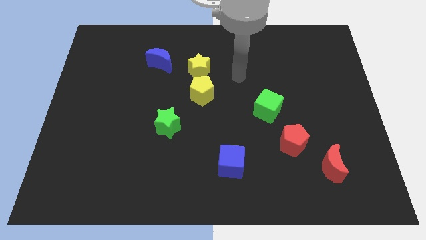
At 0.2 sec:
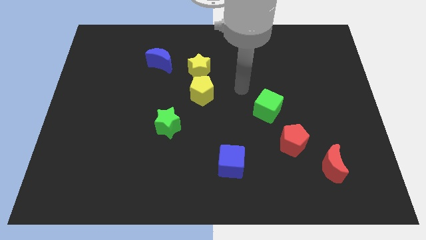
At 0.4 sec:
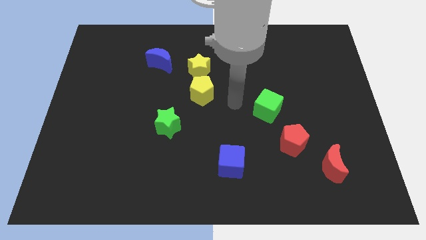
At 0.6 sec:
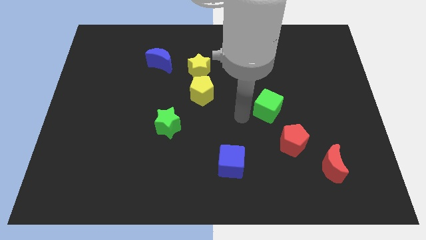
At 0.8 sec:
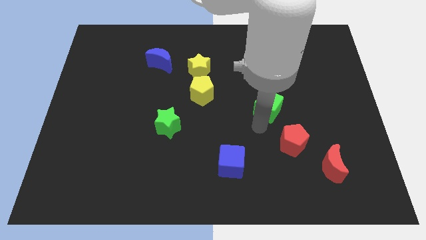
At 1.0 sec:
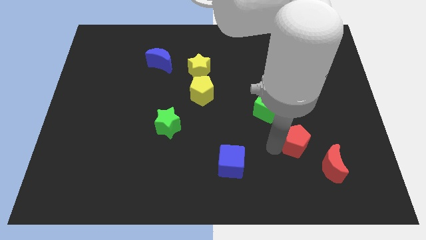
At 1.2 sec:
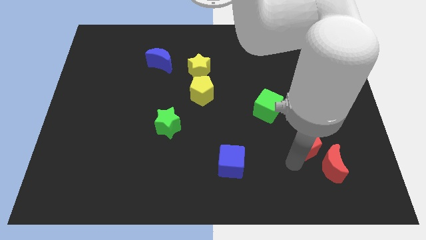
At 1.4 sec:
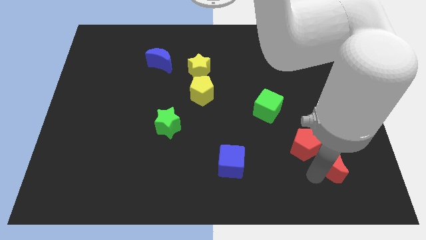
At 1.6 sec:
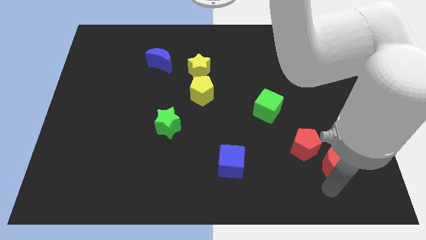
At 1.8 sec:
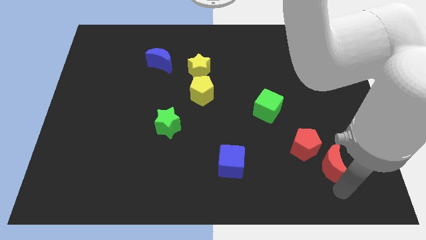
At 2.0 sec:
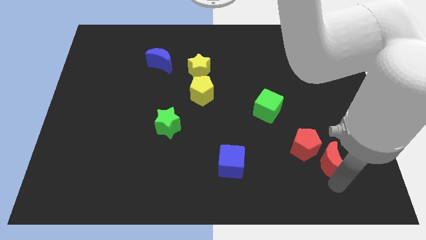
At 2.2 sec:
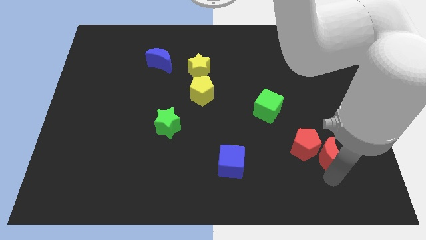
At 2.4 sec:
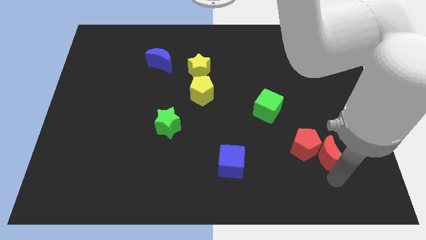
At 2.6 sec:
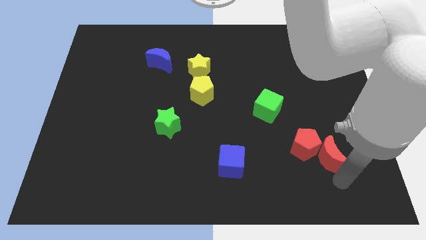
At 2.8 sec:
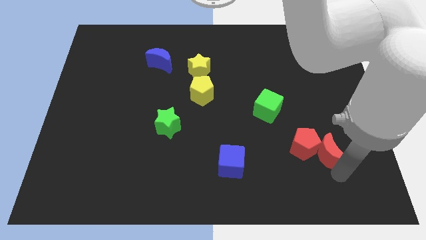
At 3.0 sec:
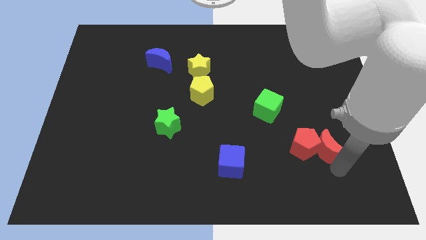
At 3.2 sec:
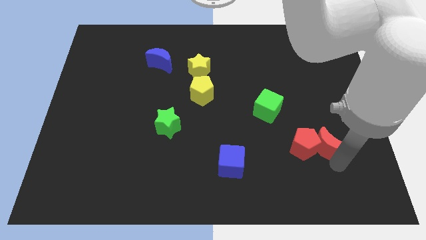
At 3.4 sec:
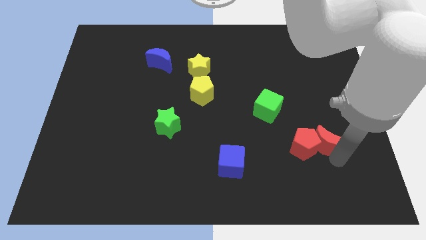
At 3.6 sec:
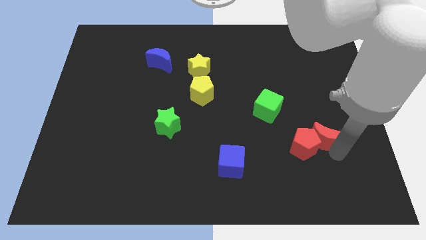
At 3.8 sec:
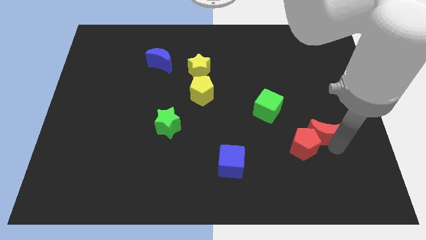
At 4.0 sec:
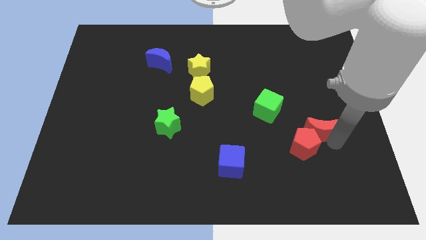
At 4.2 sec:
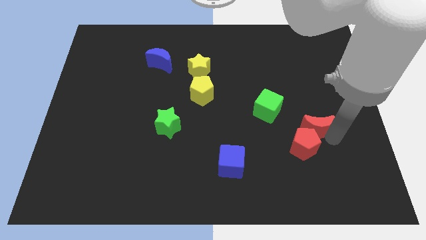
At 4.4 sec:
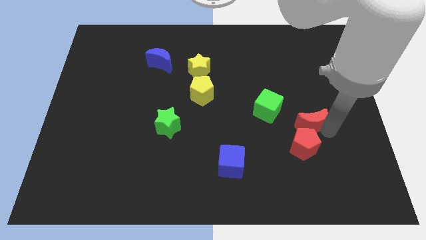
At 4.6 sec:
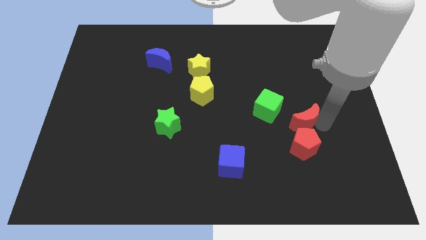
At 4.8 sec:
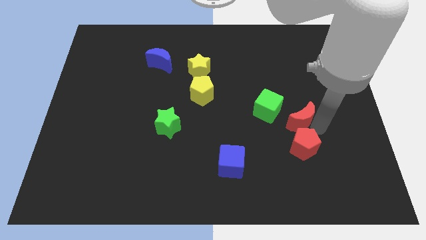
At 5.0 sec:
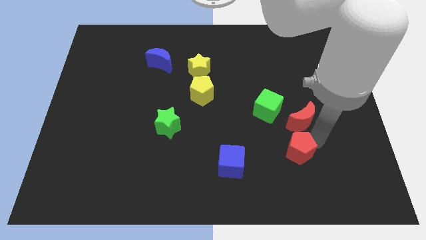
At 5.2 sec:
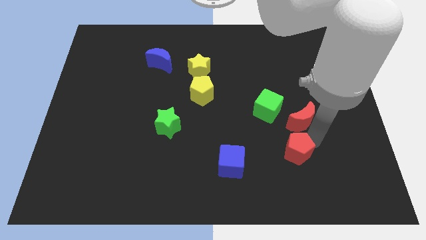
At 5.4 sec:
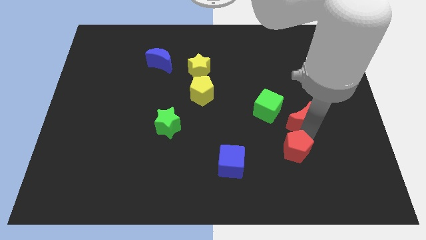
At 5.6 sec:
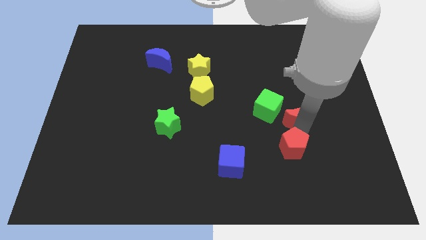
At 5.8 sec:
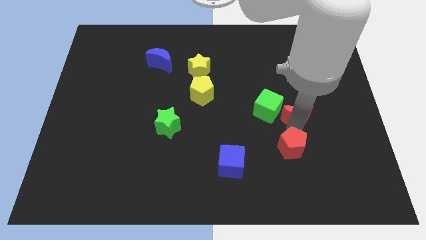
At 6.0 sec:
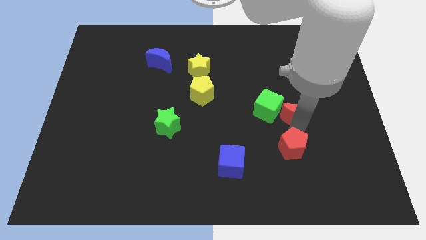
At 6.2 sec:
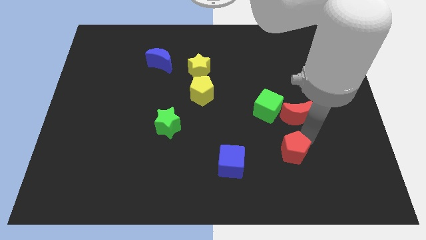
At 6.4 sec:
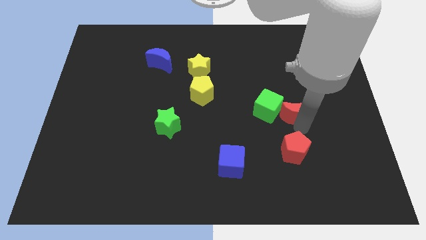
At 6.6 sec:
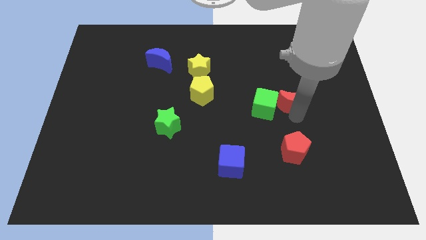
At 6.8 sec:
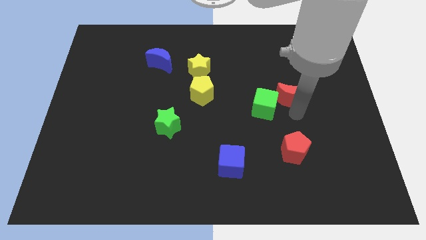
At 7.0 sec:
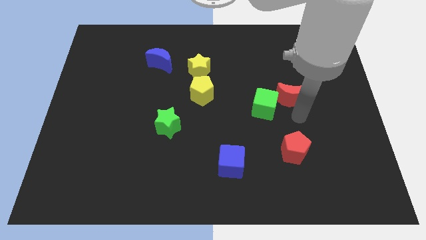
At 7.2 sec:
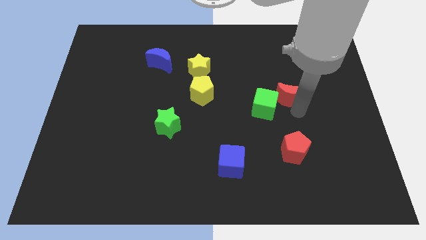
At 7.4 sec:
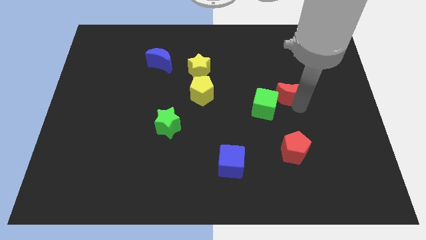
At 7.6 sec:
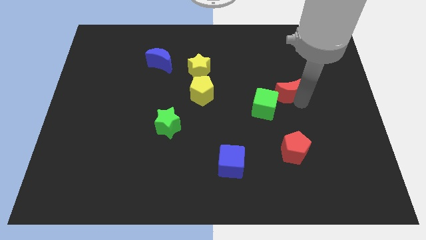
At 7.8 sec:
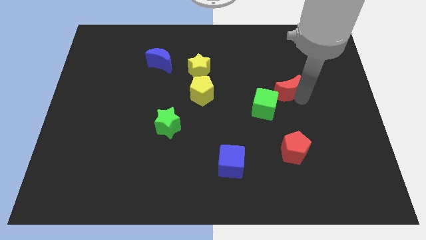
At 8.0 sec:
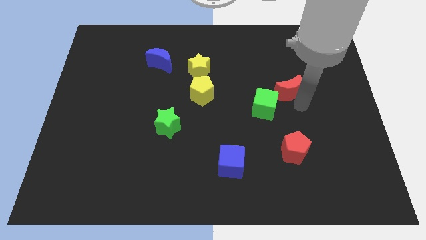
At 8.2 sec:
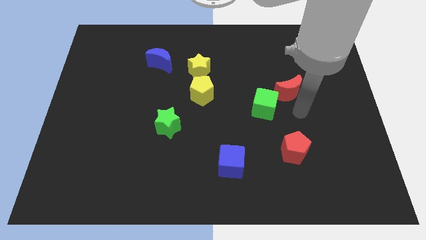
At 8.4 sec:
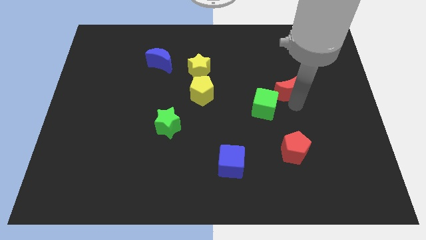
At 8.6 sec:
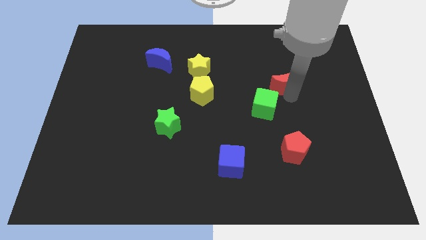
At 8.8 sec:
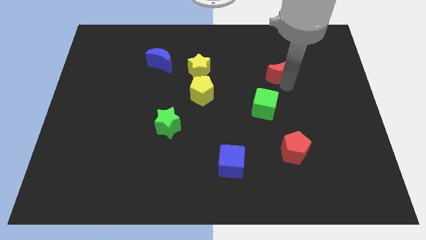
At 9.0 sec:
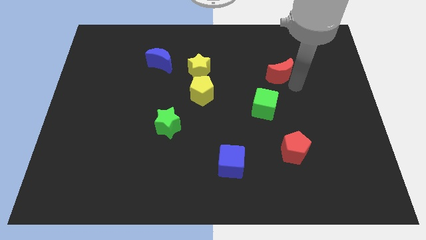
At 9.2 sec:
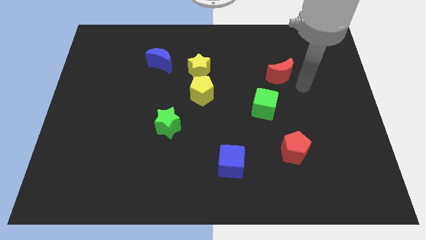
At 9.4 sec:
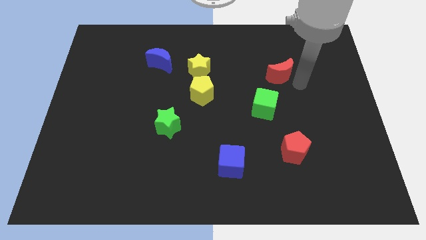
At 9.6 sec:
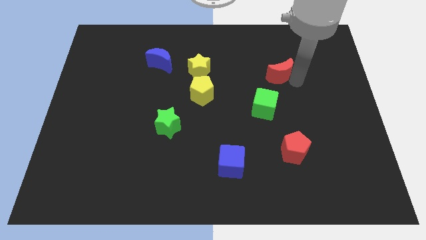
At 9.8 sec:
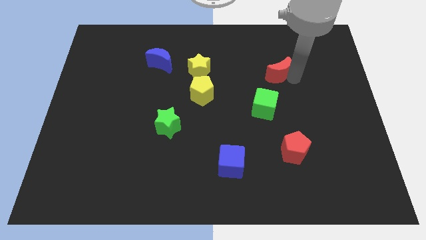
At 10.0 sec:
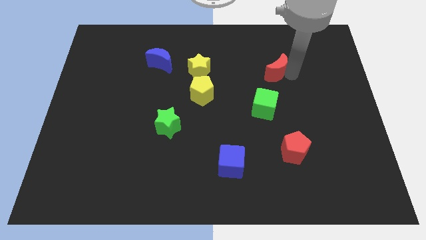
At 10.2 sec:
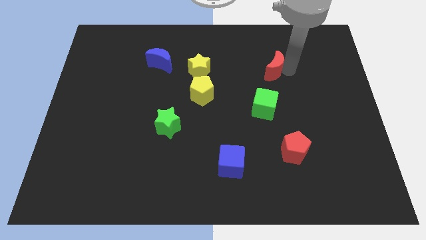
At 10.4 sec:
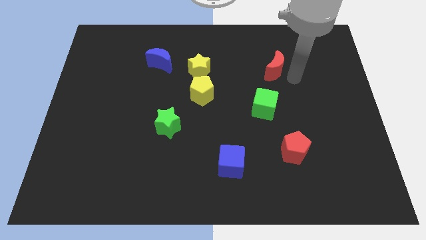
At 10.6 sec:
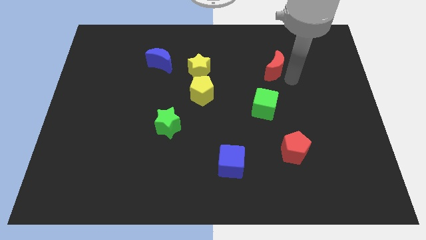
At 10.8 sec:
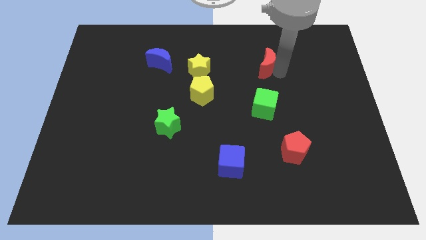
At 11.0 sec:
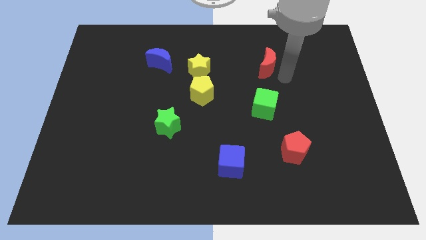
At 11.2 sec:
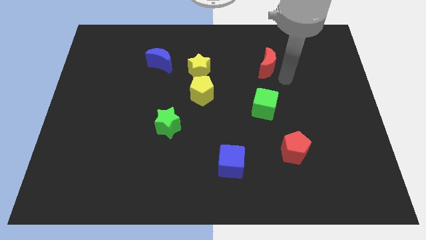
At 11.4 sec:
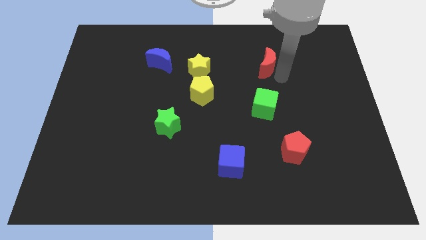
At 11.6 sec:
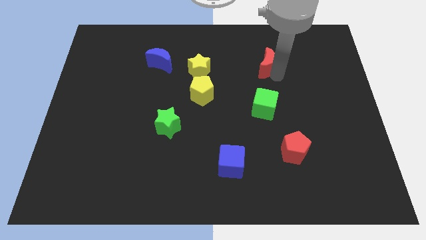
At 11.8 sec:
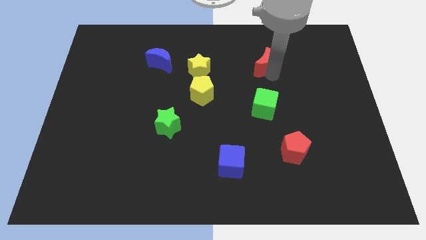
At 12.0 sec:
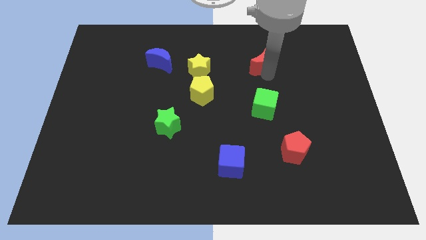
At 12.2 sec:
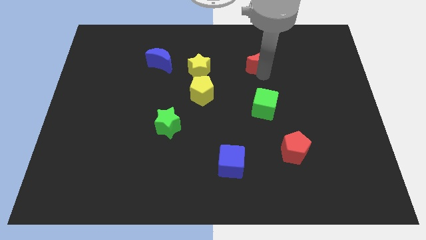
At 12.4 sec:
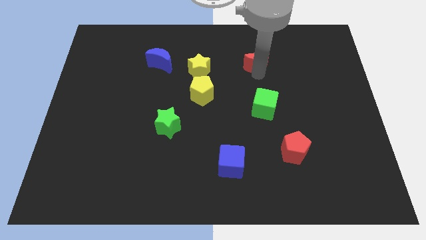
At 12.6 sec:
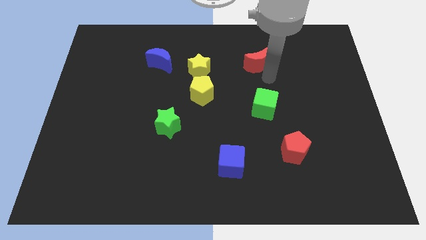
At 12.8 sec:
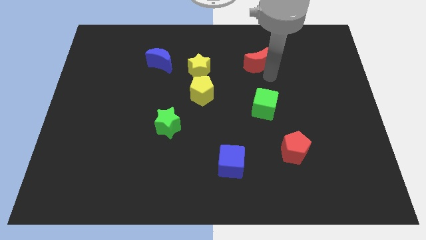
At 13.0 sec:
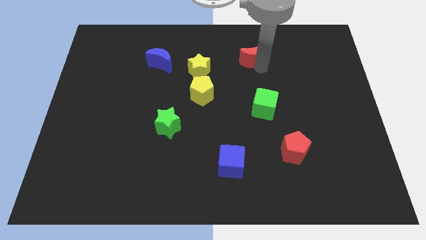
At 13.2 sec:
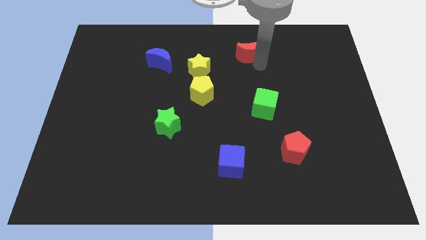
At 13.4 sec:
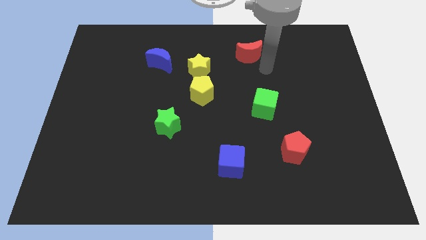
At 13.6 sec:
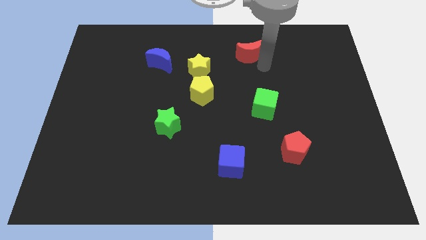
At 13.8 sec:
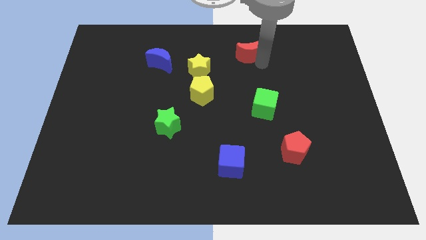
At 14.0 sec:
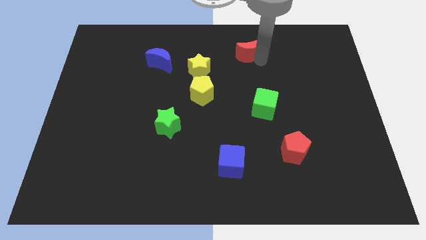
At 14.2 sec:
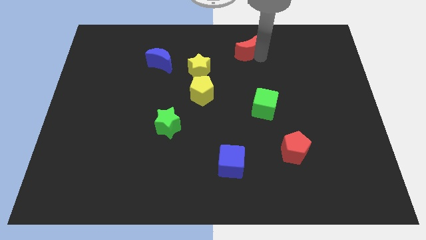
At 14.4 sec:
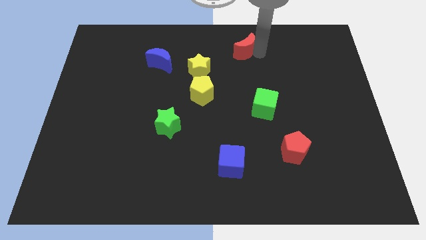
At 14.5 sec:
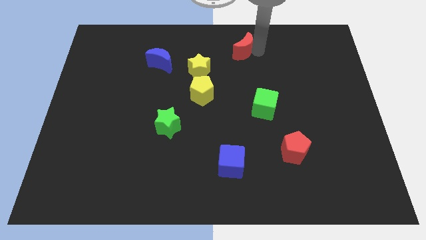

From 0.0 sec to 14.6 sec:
slide the red moon to the towards your base
